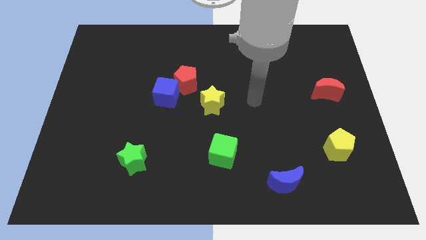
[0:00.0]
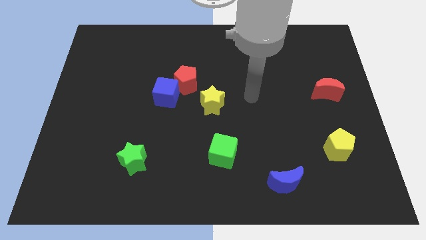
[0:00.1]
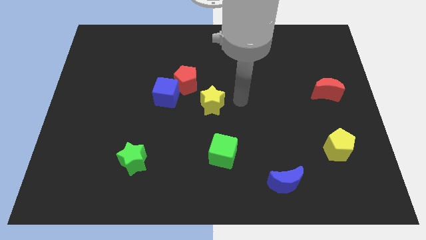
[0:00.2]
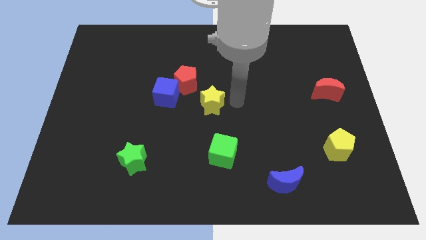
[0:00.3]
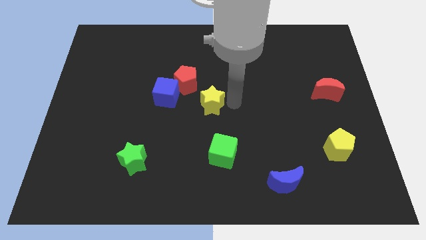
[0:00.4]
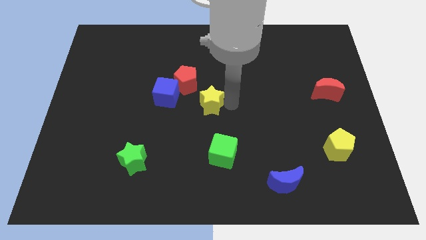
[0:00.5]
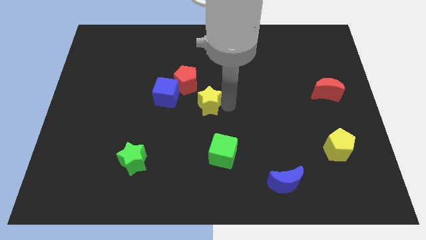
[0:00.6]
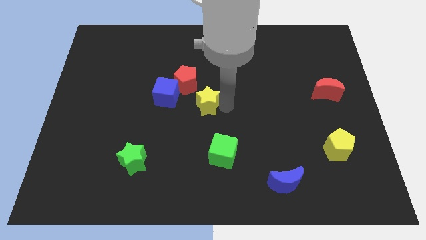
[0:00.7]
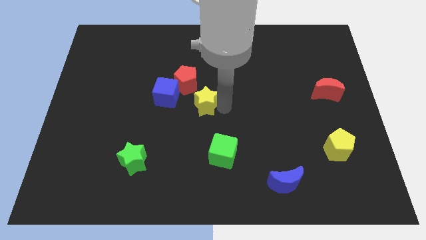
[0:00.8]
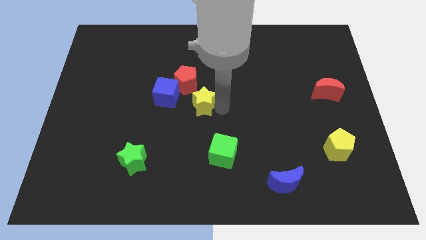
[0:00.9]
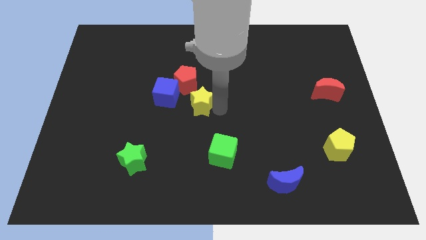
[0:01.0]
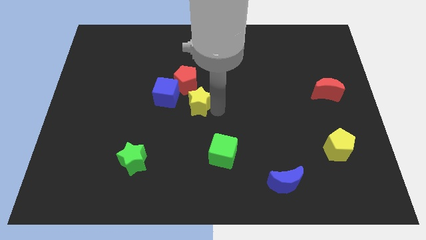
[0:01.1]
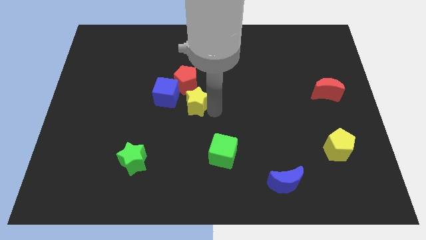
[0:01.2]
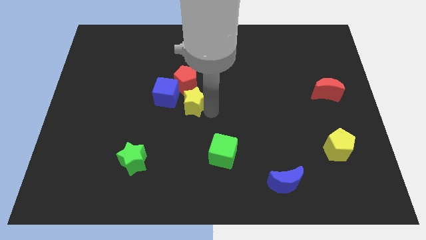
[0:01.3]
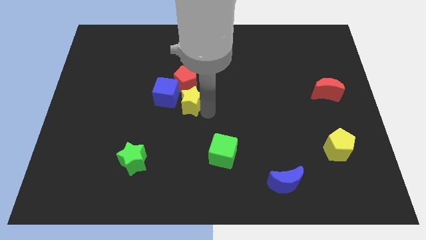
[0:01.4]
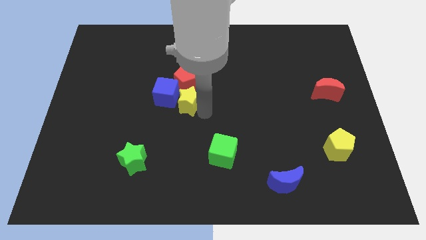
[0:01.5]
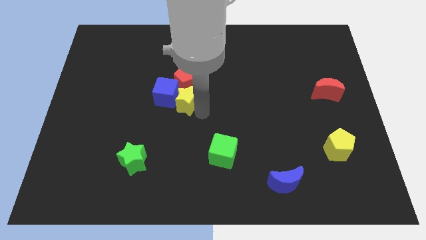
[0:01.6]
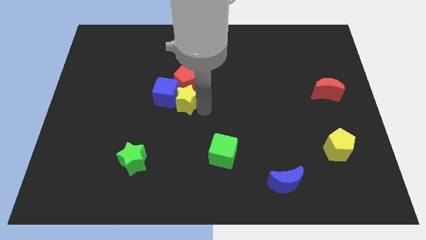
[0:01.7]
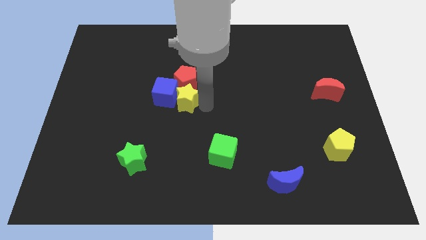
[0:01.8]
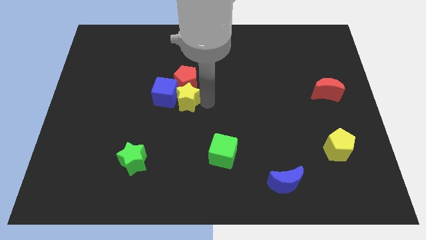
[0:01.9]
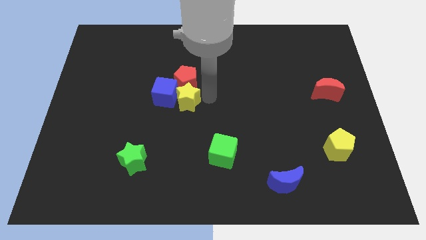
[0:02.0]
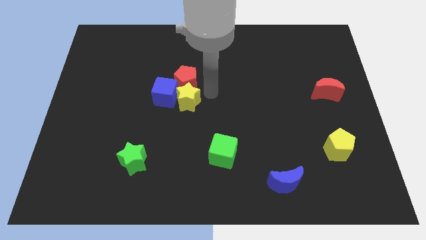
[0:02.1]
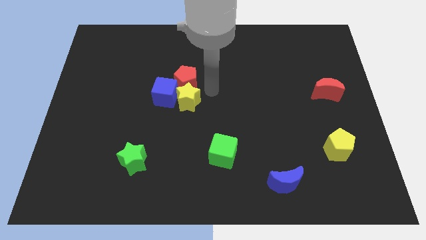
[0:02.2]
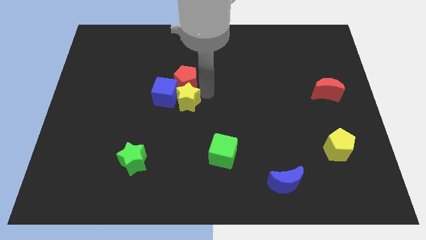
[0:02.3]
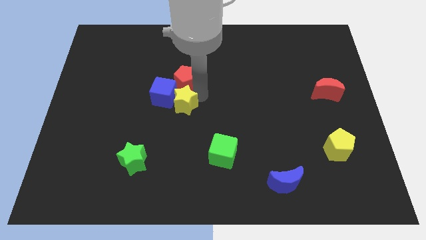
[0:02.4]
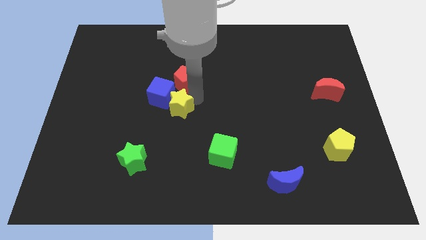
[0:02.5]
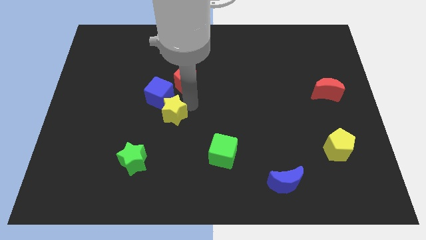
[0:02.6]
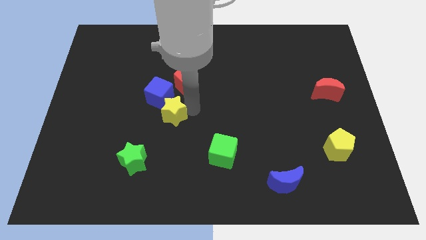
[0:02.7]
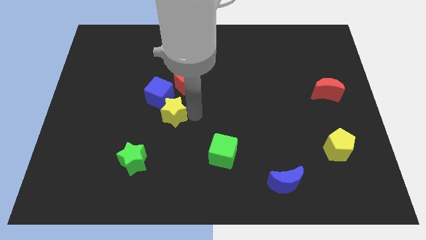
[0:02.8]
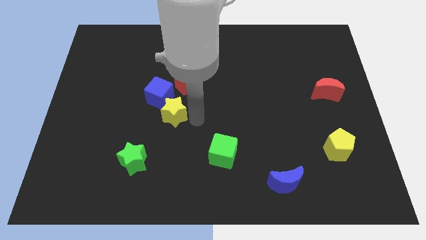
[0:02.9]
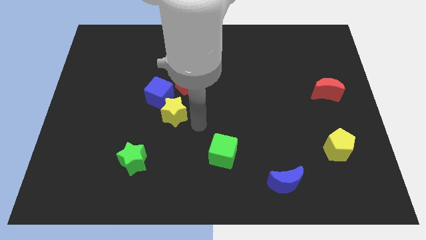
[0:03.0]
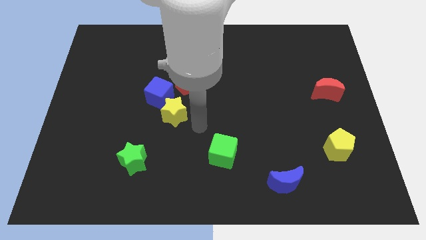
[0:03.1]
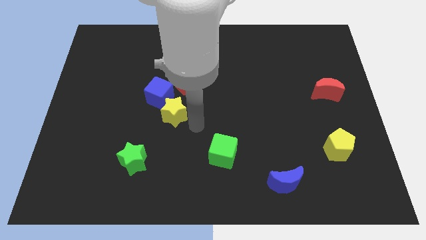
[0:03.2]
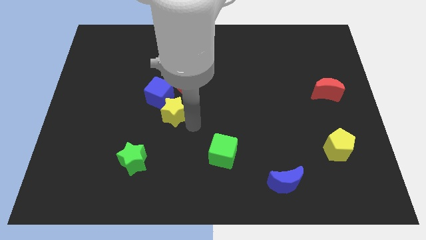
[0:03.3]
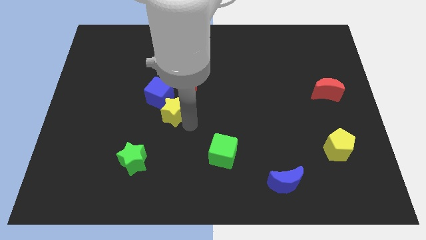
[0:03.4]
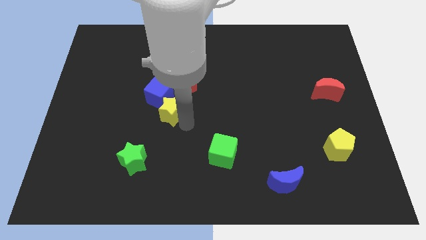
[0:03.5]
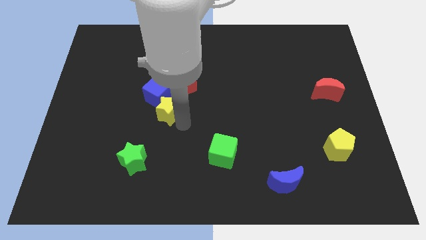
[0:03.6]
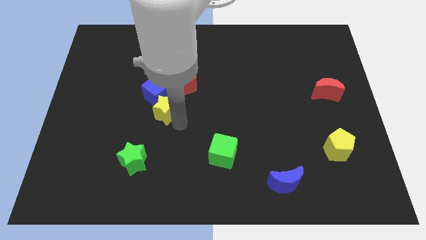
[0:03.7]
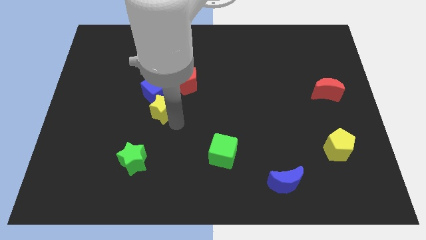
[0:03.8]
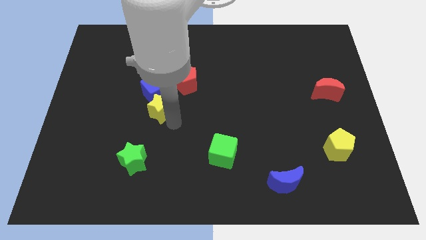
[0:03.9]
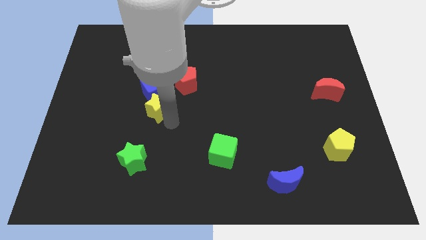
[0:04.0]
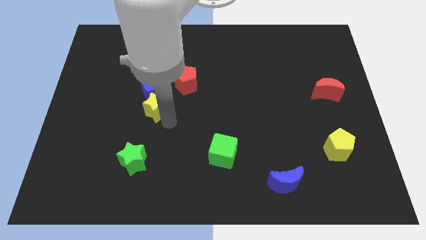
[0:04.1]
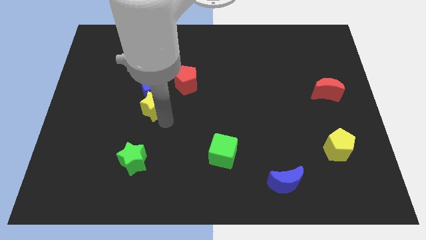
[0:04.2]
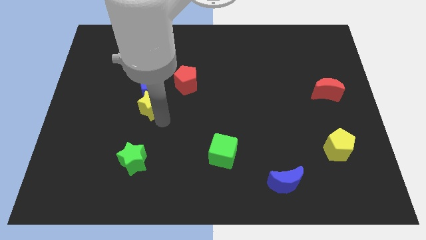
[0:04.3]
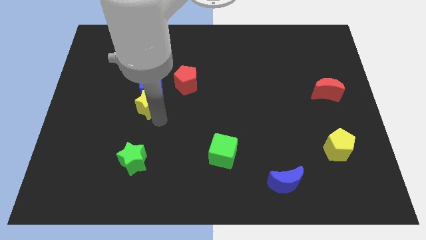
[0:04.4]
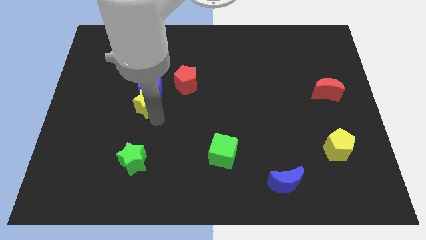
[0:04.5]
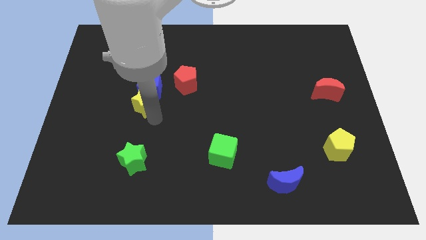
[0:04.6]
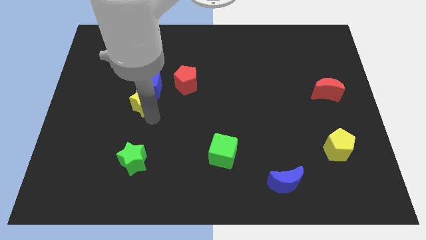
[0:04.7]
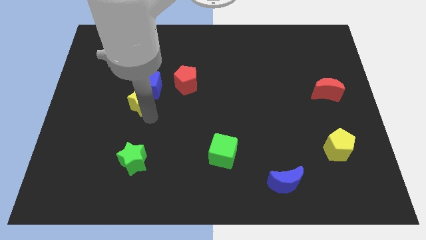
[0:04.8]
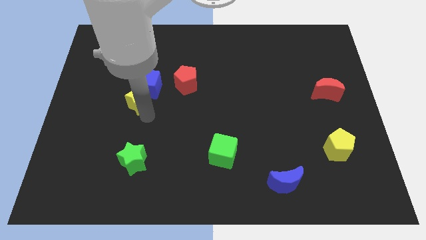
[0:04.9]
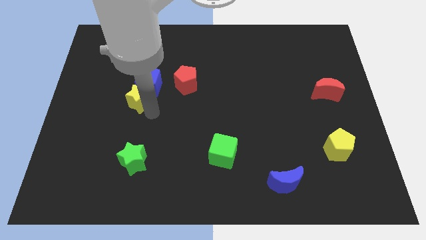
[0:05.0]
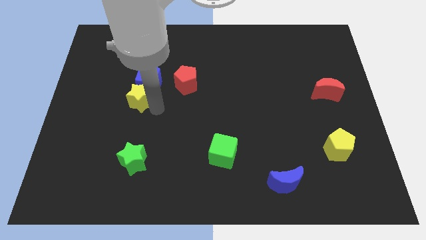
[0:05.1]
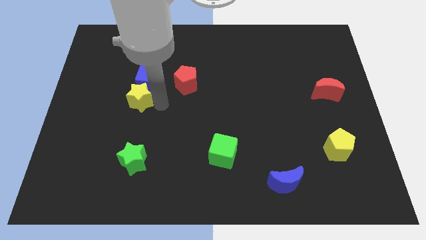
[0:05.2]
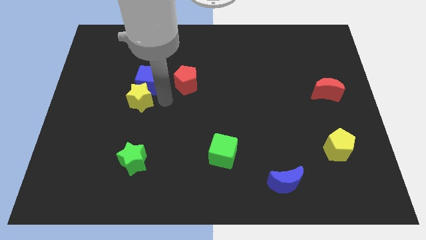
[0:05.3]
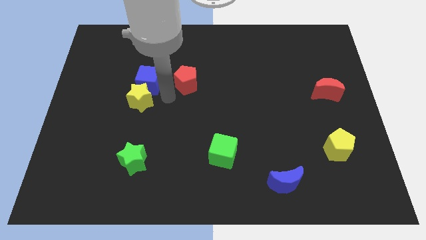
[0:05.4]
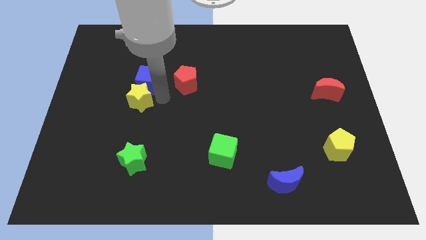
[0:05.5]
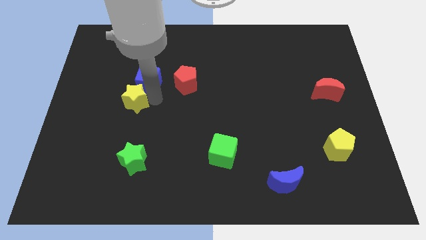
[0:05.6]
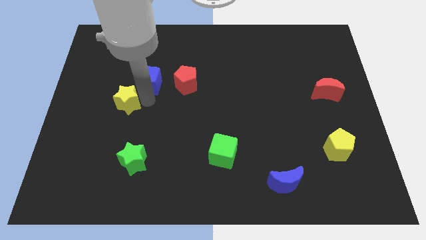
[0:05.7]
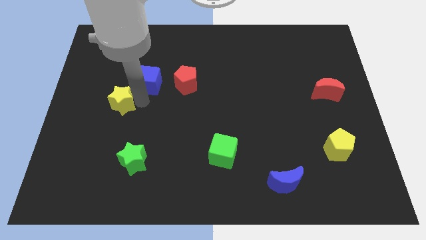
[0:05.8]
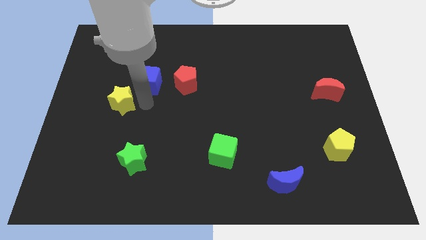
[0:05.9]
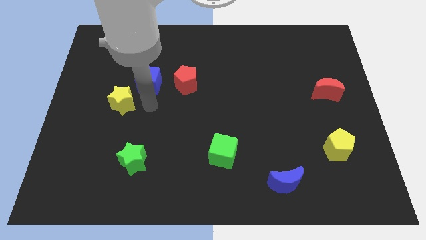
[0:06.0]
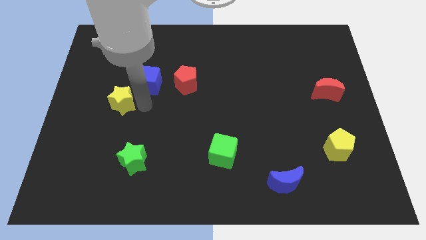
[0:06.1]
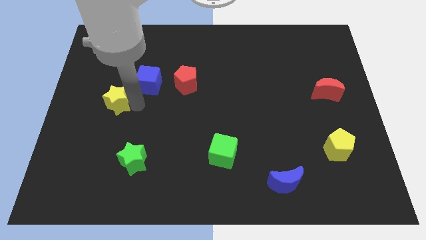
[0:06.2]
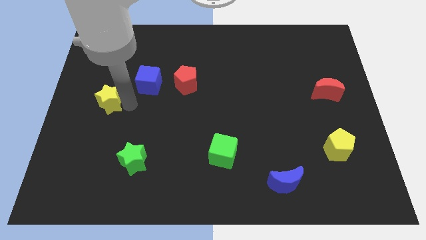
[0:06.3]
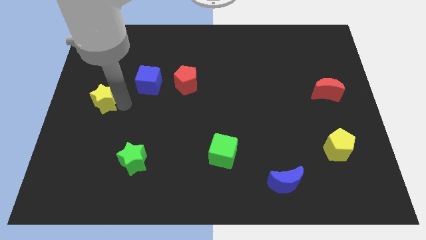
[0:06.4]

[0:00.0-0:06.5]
move the yellow star to the center left

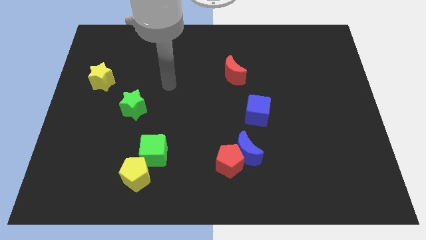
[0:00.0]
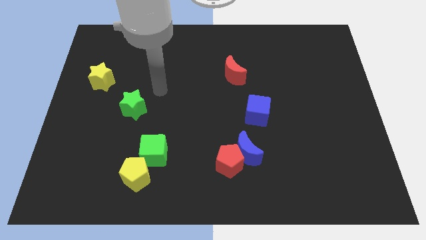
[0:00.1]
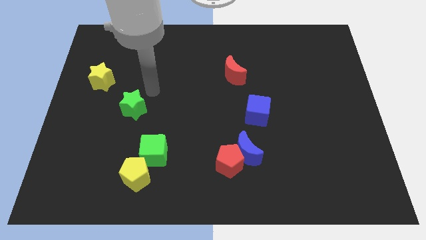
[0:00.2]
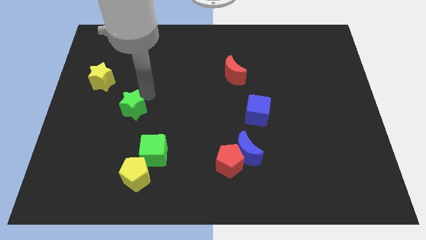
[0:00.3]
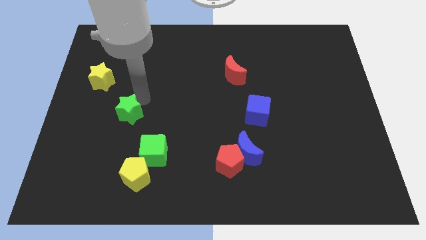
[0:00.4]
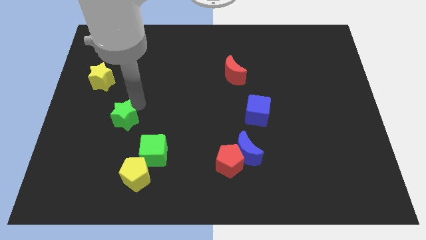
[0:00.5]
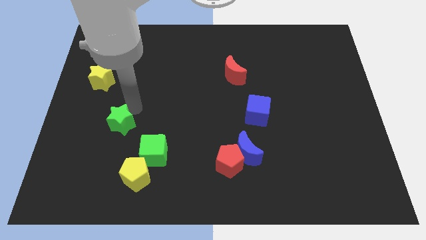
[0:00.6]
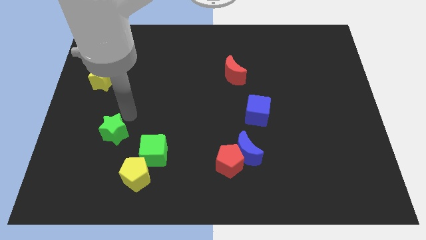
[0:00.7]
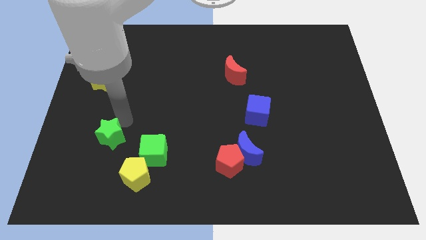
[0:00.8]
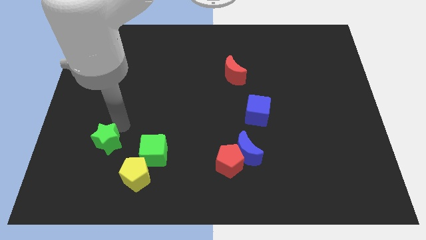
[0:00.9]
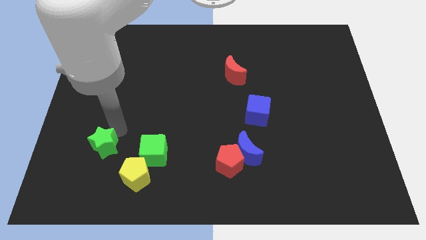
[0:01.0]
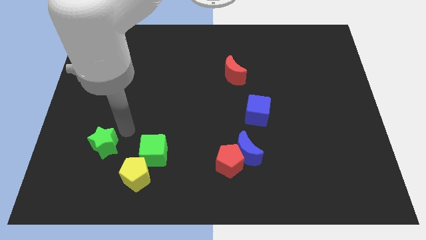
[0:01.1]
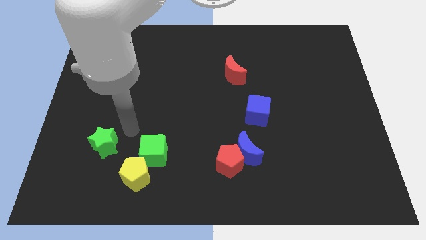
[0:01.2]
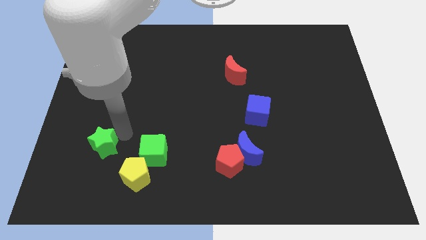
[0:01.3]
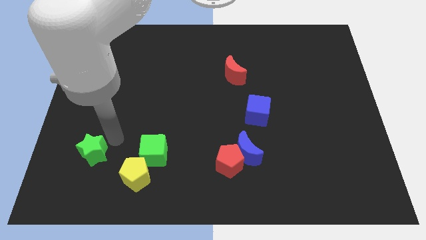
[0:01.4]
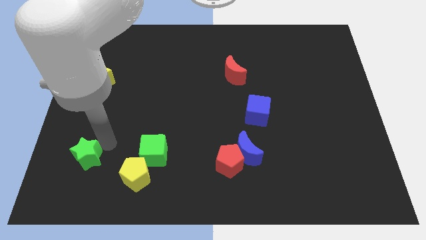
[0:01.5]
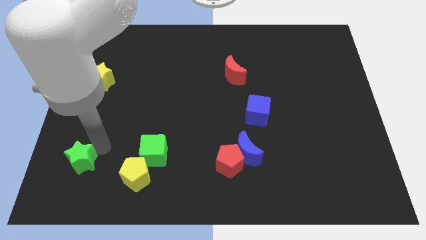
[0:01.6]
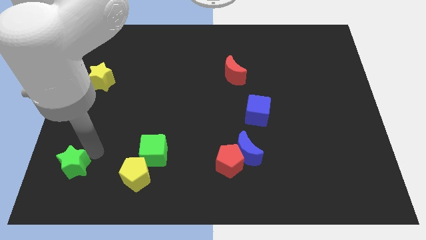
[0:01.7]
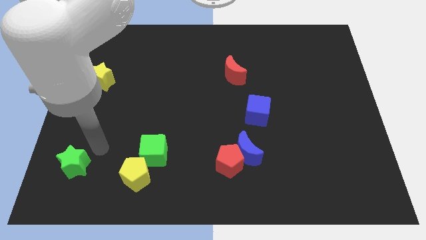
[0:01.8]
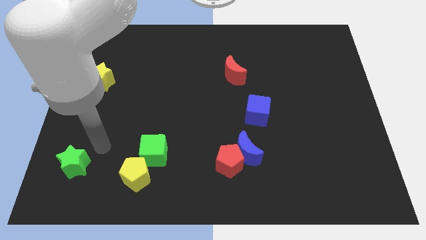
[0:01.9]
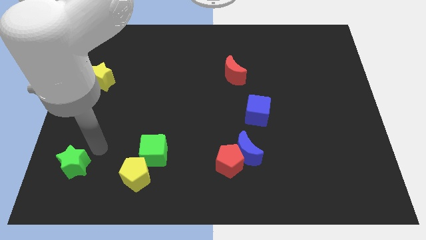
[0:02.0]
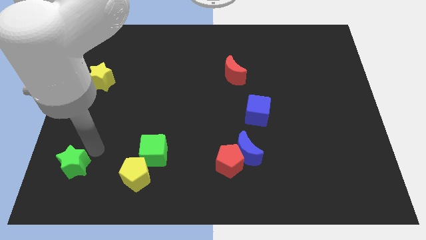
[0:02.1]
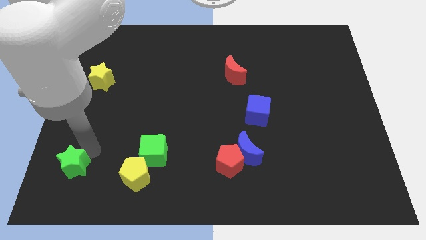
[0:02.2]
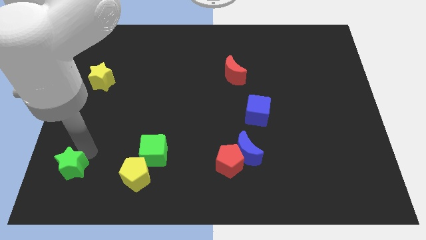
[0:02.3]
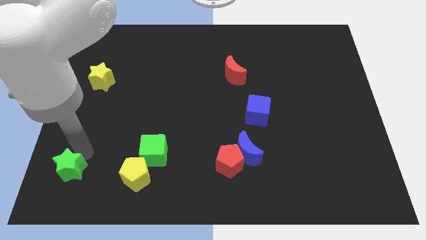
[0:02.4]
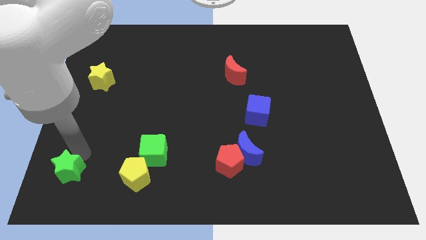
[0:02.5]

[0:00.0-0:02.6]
slide the green star to the bottom left corner
